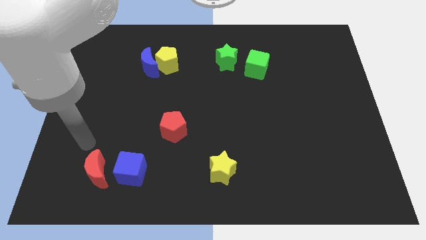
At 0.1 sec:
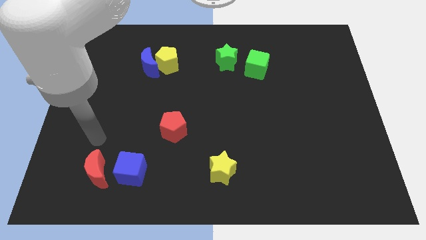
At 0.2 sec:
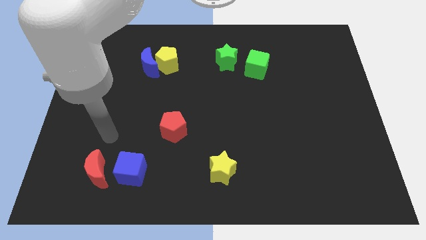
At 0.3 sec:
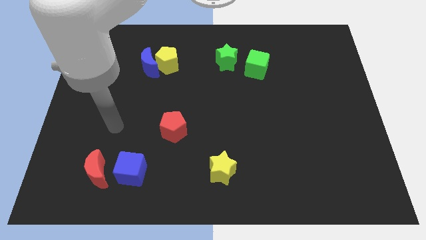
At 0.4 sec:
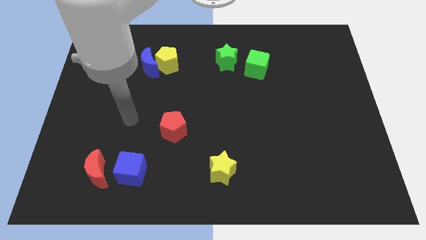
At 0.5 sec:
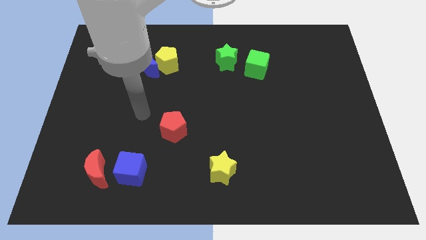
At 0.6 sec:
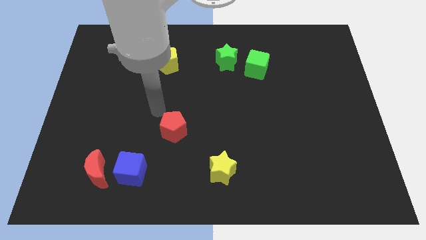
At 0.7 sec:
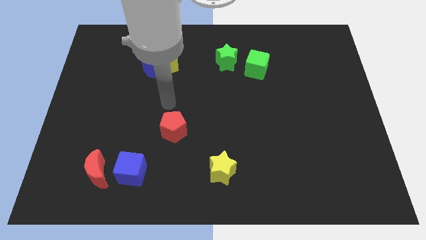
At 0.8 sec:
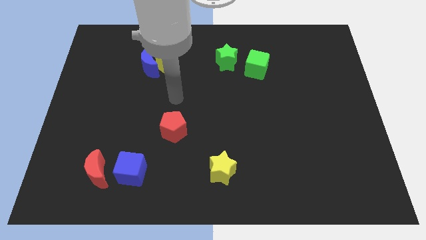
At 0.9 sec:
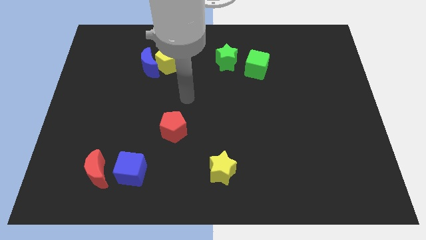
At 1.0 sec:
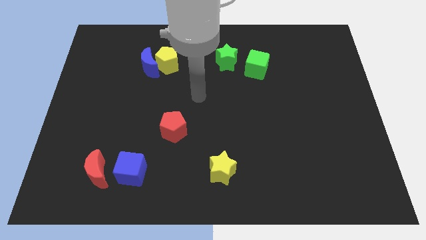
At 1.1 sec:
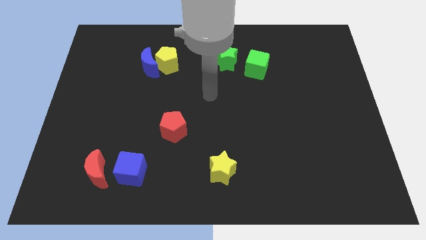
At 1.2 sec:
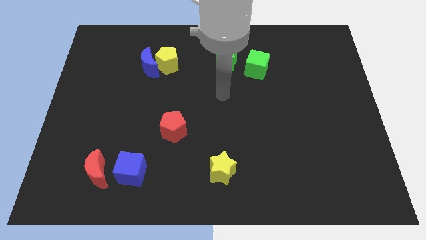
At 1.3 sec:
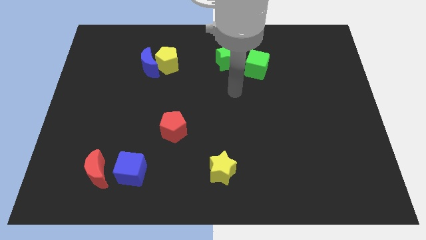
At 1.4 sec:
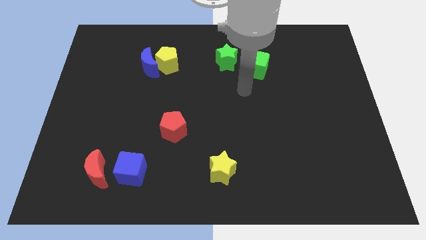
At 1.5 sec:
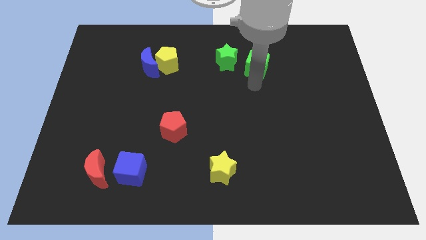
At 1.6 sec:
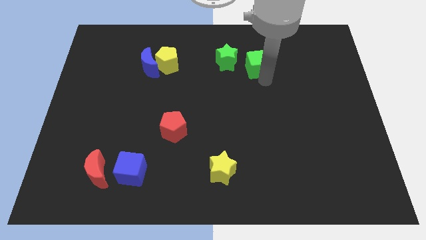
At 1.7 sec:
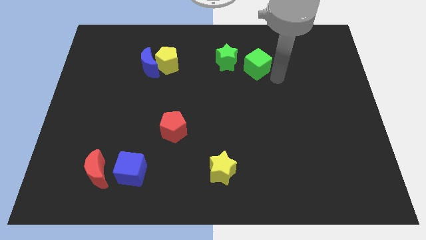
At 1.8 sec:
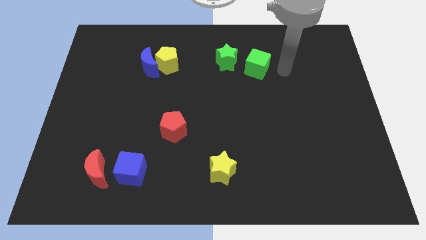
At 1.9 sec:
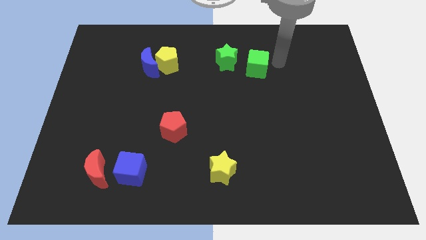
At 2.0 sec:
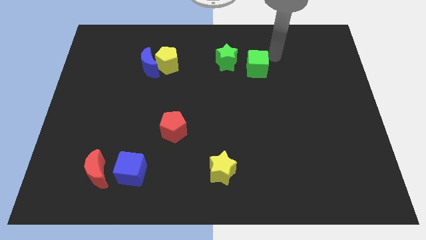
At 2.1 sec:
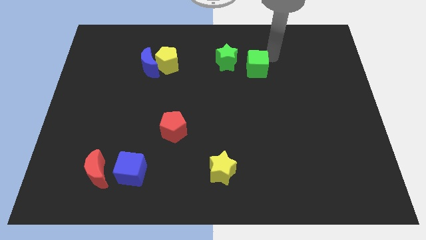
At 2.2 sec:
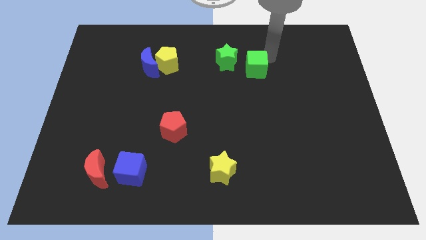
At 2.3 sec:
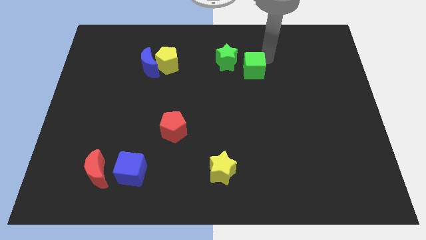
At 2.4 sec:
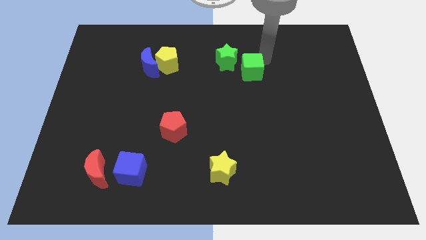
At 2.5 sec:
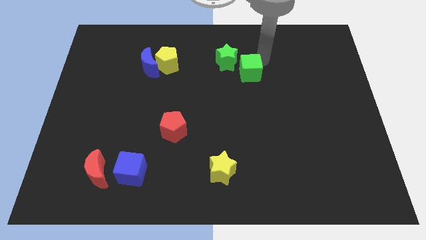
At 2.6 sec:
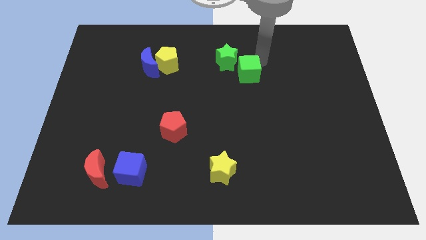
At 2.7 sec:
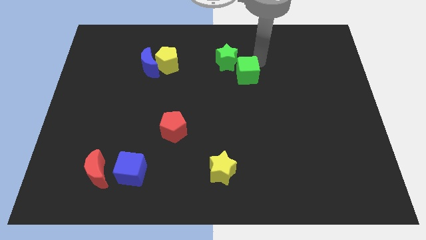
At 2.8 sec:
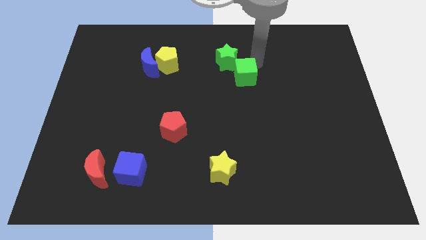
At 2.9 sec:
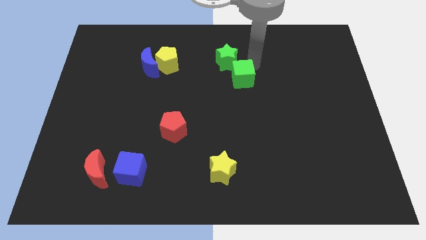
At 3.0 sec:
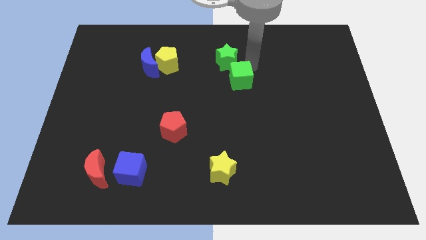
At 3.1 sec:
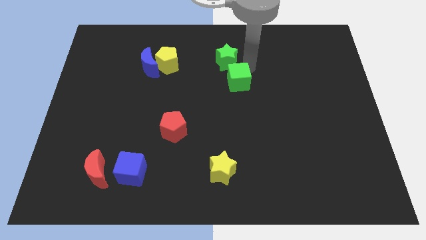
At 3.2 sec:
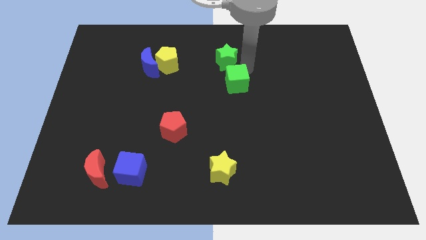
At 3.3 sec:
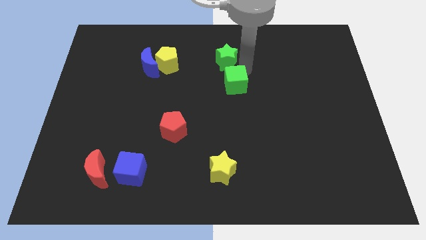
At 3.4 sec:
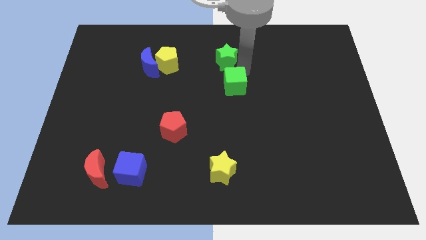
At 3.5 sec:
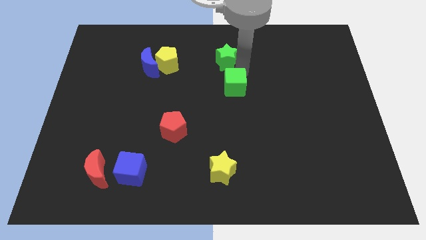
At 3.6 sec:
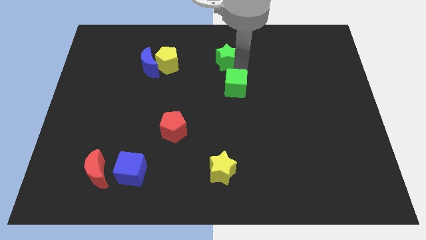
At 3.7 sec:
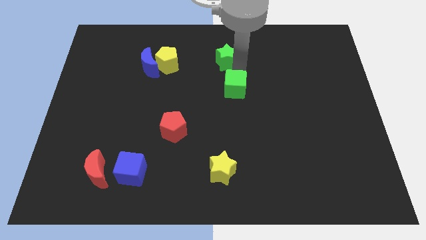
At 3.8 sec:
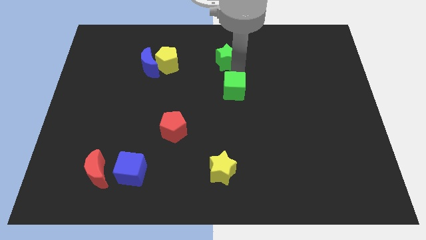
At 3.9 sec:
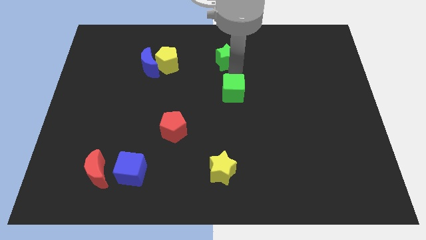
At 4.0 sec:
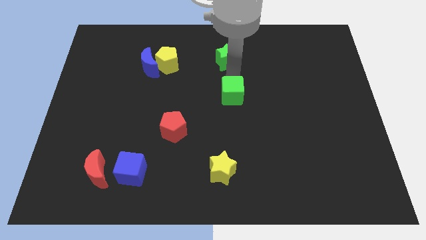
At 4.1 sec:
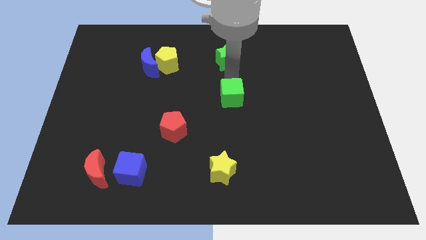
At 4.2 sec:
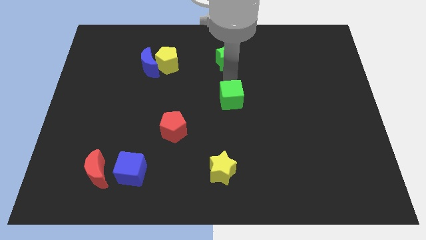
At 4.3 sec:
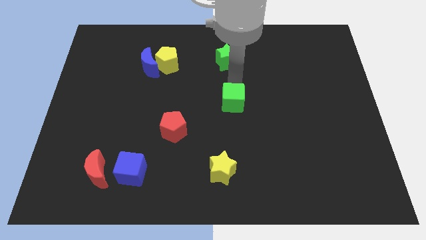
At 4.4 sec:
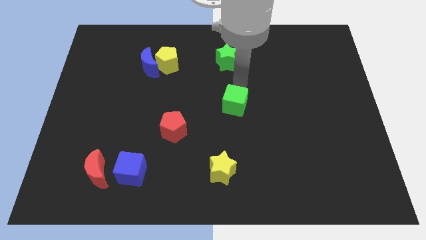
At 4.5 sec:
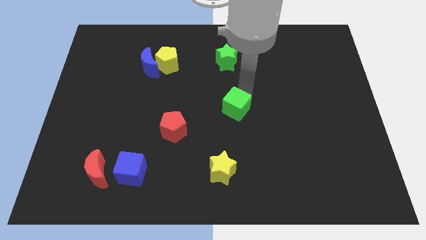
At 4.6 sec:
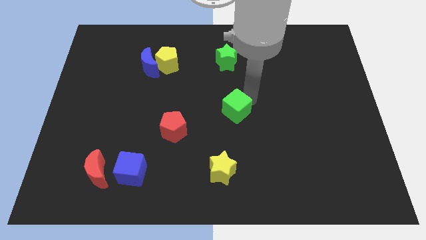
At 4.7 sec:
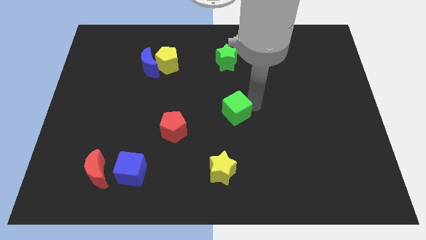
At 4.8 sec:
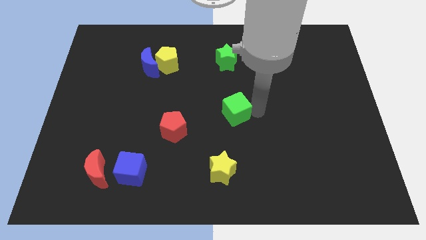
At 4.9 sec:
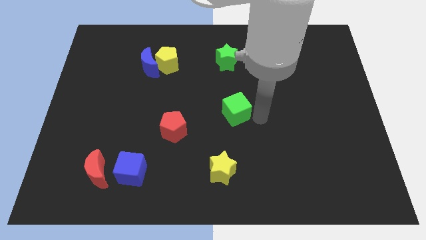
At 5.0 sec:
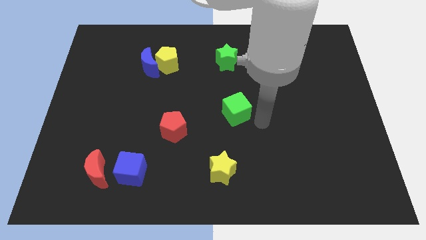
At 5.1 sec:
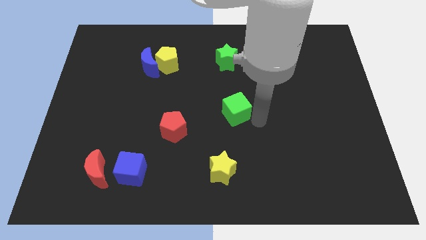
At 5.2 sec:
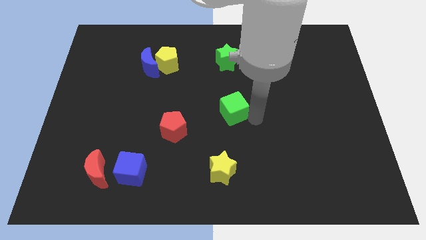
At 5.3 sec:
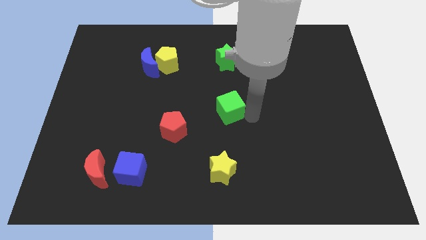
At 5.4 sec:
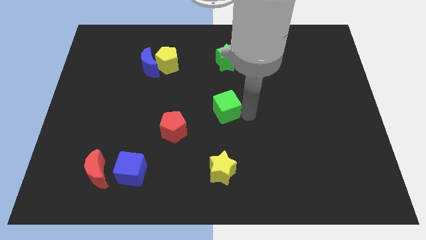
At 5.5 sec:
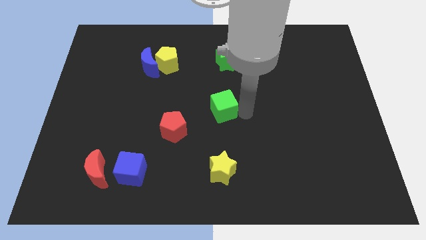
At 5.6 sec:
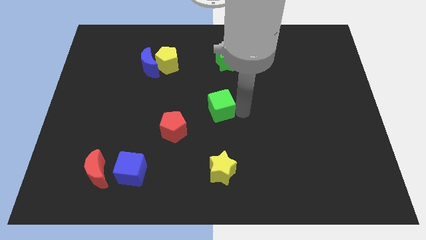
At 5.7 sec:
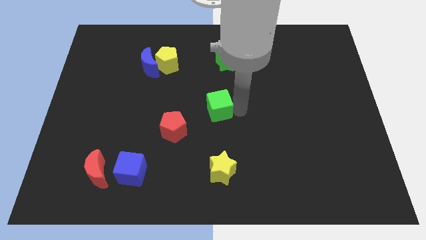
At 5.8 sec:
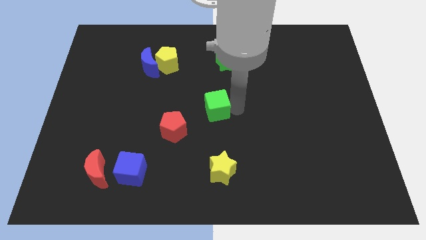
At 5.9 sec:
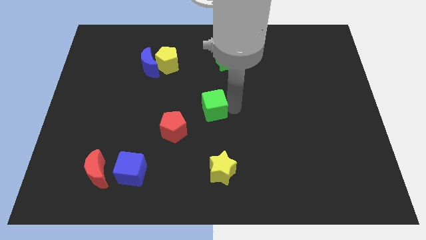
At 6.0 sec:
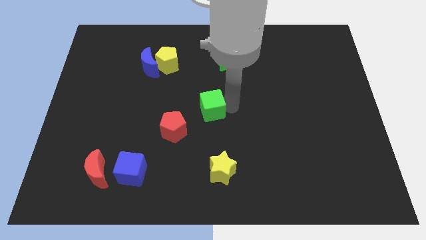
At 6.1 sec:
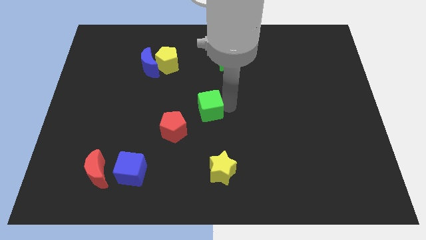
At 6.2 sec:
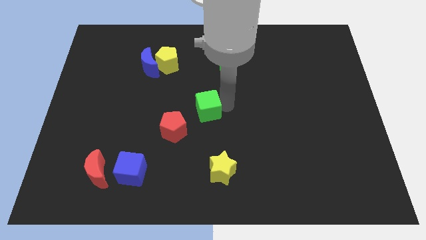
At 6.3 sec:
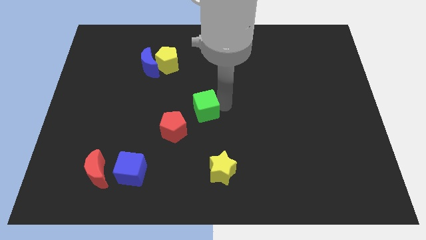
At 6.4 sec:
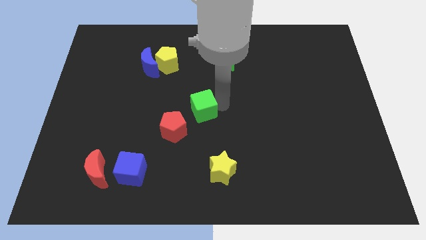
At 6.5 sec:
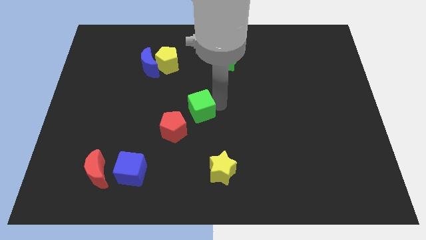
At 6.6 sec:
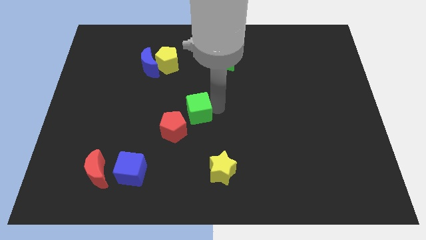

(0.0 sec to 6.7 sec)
move the green cube downwards and then left

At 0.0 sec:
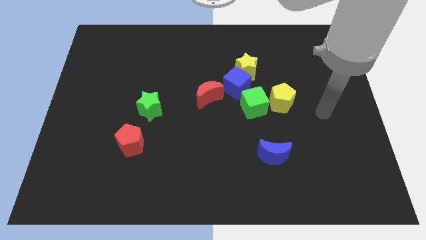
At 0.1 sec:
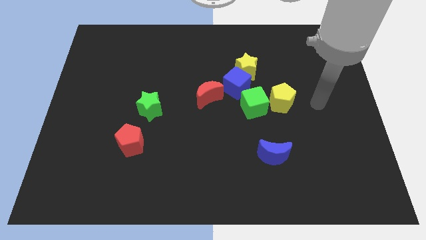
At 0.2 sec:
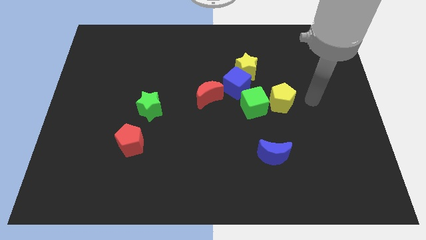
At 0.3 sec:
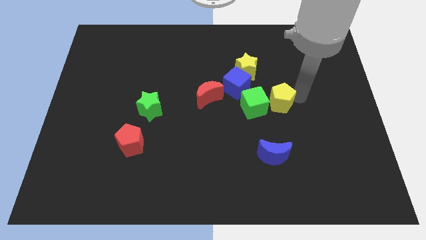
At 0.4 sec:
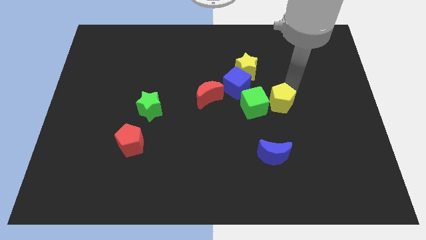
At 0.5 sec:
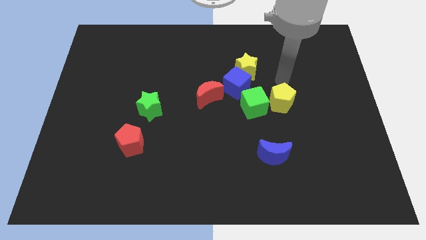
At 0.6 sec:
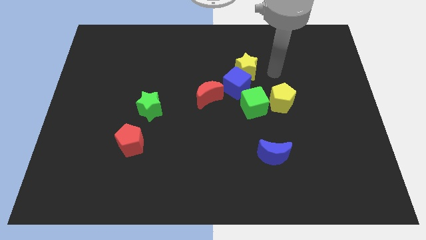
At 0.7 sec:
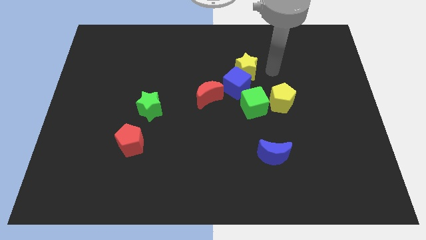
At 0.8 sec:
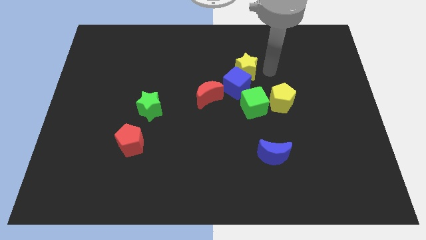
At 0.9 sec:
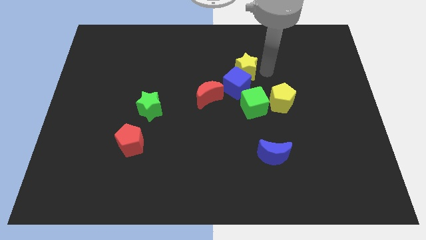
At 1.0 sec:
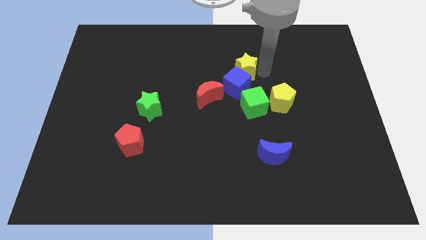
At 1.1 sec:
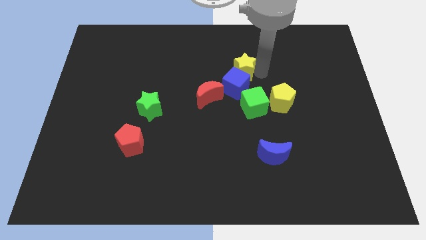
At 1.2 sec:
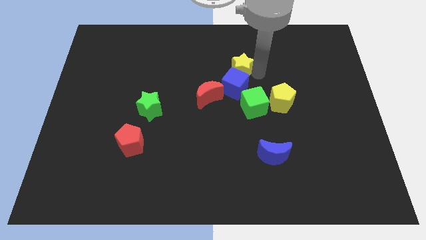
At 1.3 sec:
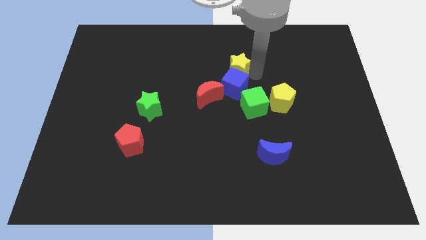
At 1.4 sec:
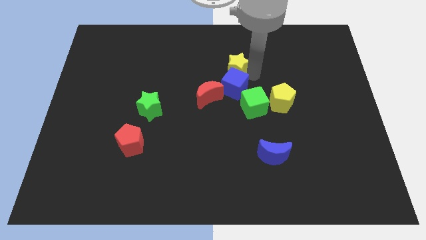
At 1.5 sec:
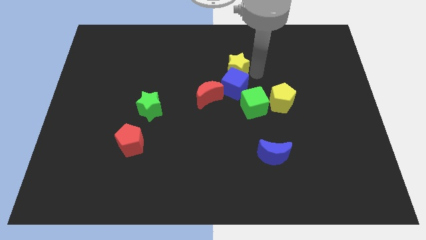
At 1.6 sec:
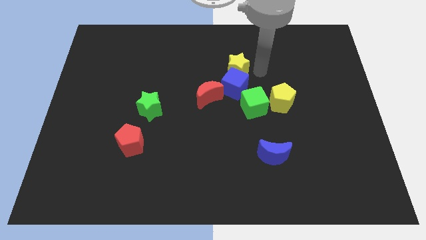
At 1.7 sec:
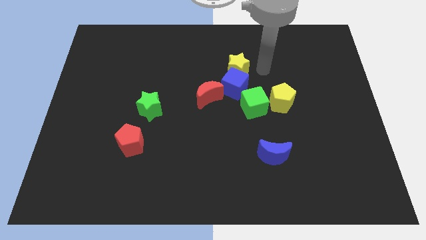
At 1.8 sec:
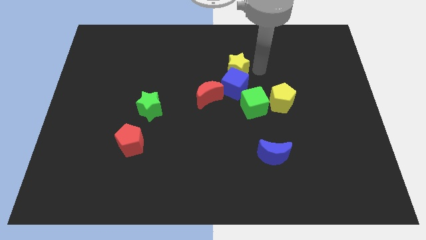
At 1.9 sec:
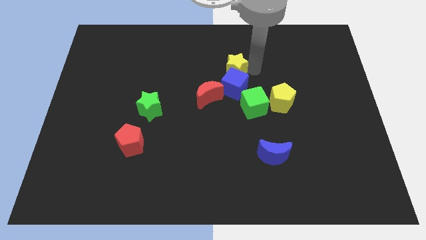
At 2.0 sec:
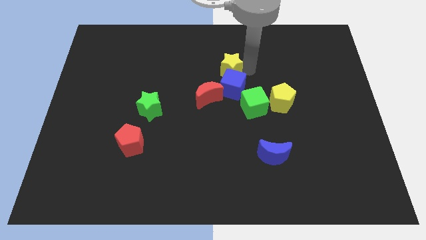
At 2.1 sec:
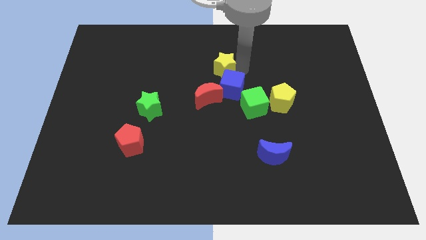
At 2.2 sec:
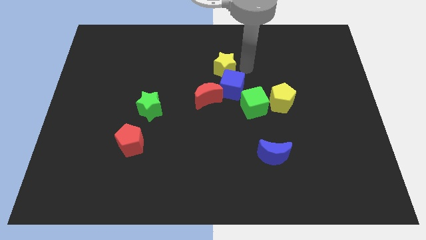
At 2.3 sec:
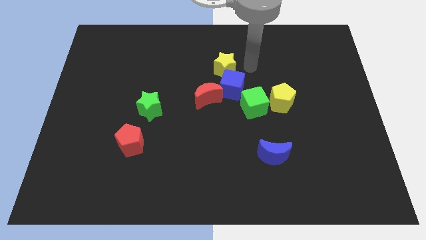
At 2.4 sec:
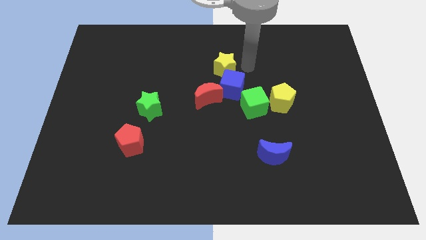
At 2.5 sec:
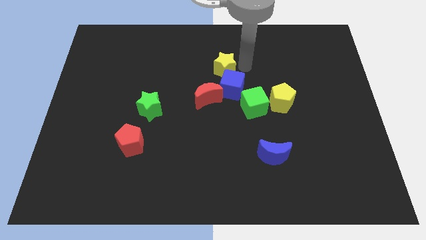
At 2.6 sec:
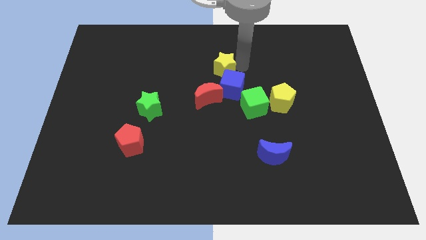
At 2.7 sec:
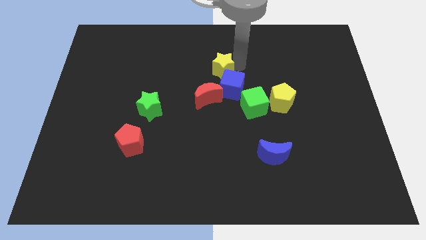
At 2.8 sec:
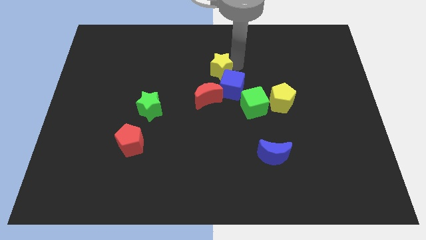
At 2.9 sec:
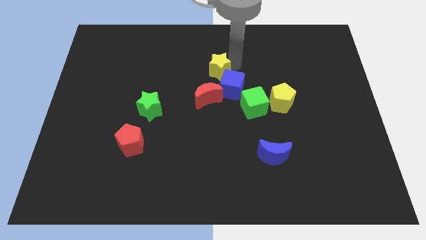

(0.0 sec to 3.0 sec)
move the yellow star left slightly
